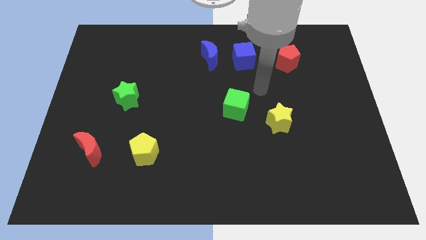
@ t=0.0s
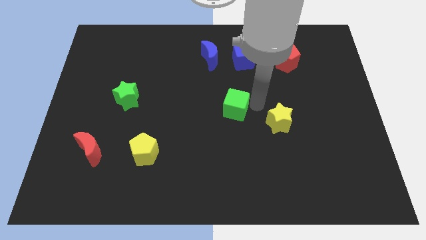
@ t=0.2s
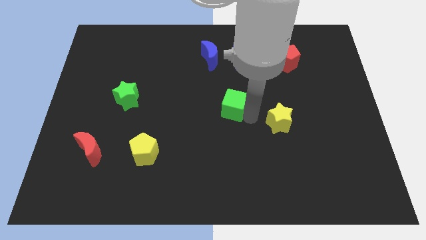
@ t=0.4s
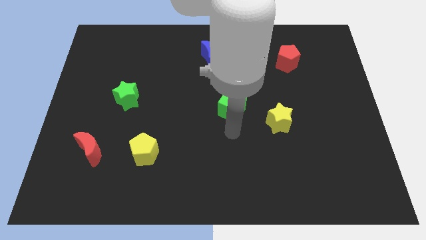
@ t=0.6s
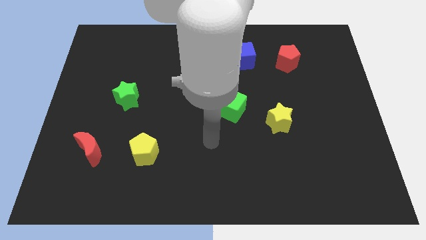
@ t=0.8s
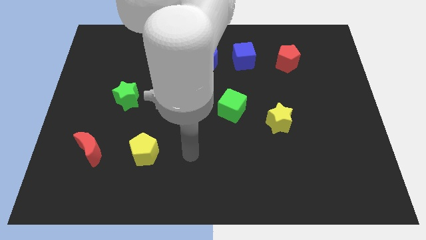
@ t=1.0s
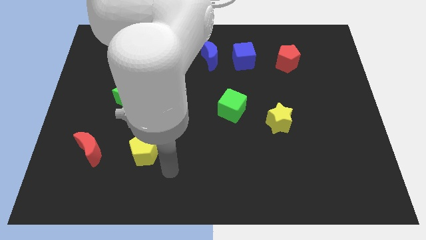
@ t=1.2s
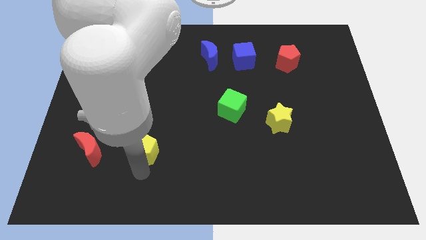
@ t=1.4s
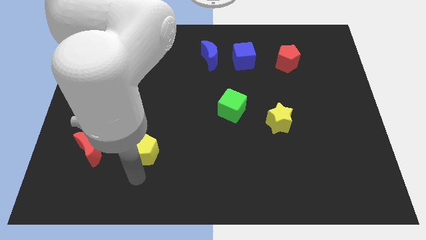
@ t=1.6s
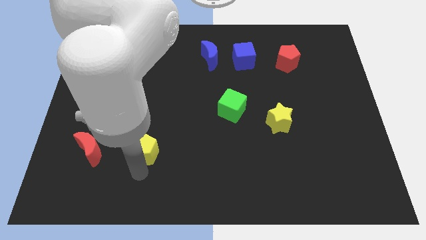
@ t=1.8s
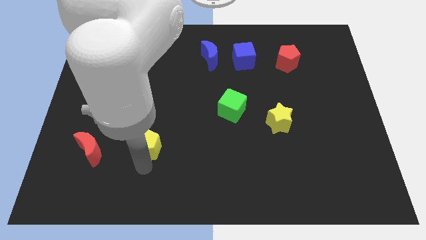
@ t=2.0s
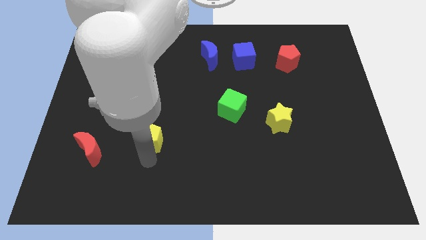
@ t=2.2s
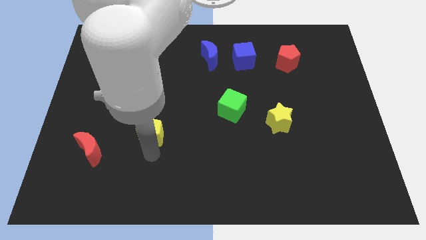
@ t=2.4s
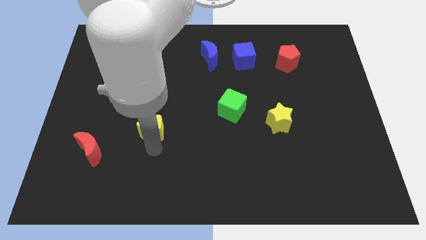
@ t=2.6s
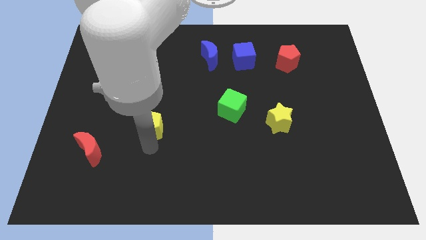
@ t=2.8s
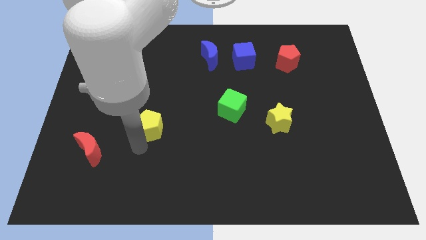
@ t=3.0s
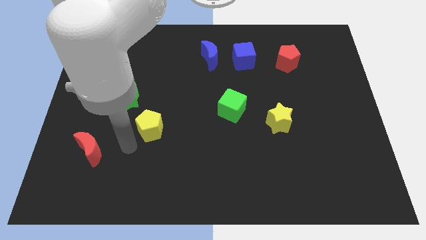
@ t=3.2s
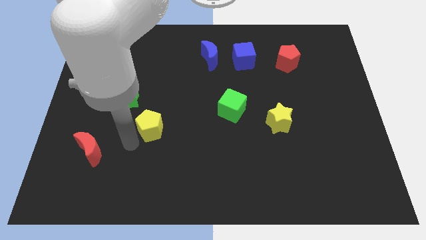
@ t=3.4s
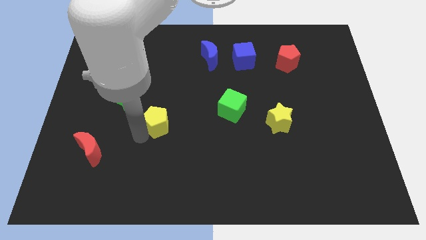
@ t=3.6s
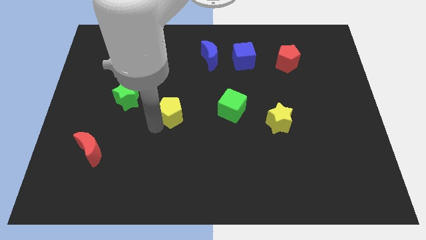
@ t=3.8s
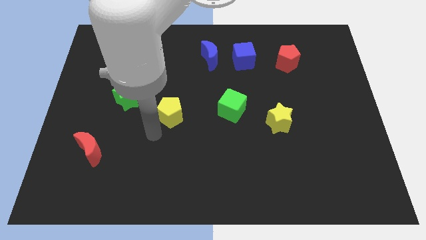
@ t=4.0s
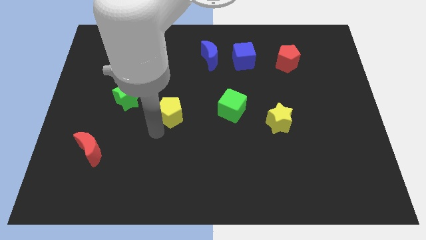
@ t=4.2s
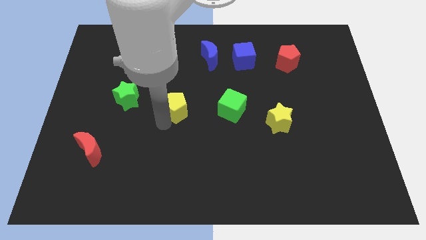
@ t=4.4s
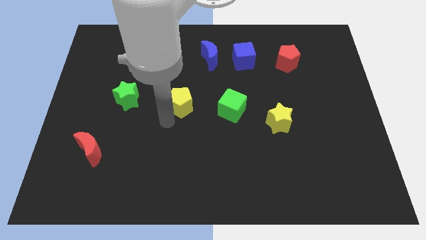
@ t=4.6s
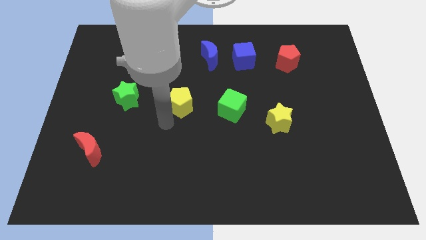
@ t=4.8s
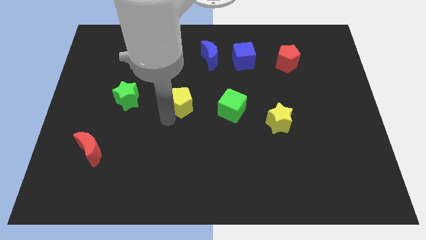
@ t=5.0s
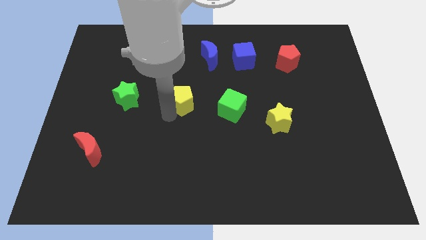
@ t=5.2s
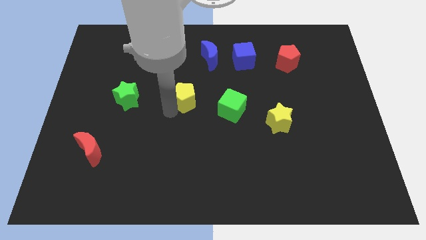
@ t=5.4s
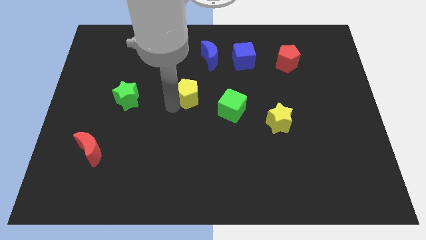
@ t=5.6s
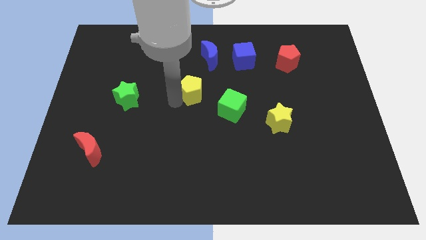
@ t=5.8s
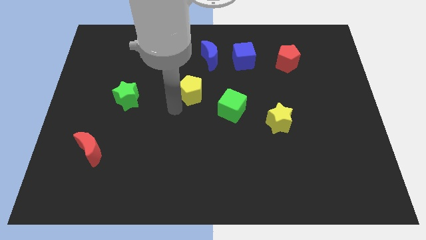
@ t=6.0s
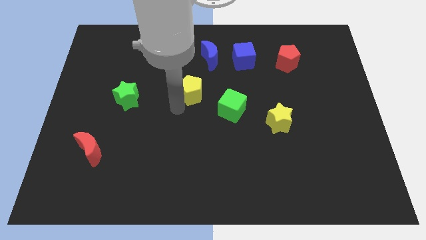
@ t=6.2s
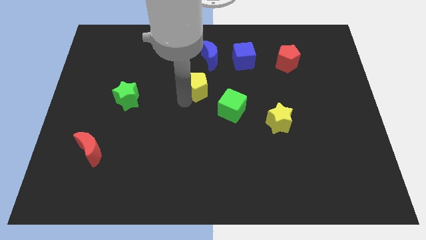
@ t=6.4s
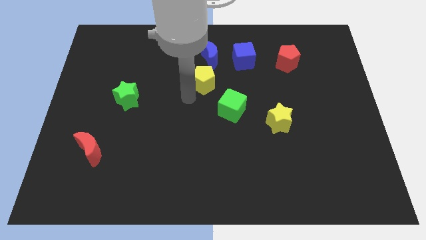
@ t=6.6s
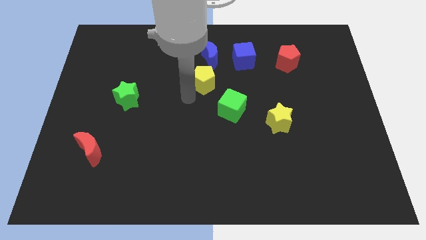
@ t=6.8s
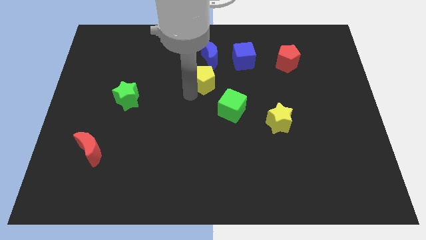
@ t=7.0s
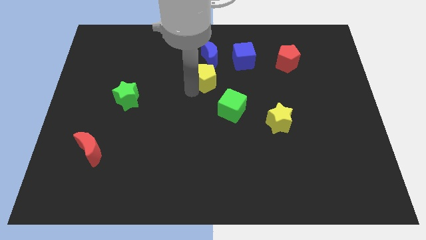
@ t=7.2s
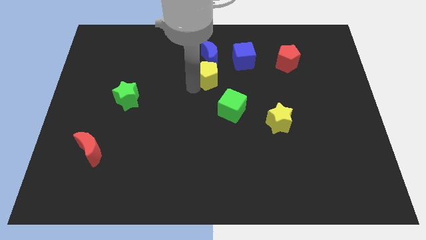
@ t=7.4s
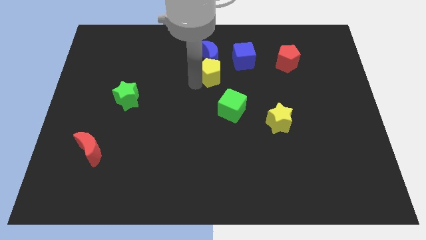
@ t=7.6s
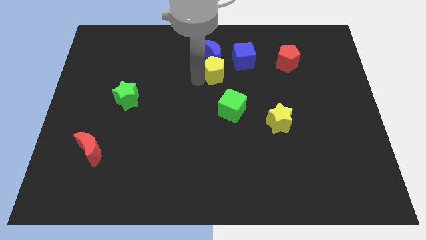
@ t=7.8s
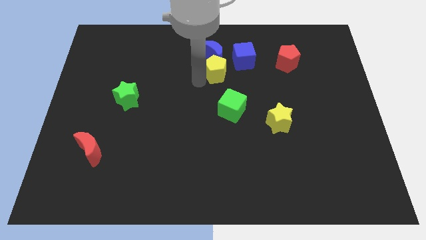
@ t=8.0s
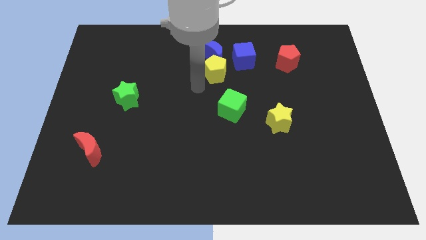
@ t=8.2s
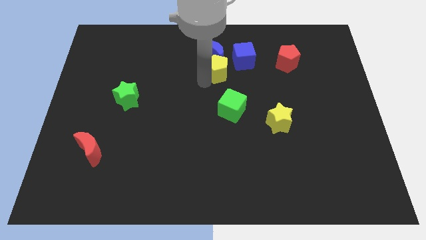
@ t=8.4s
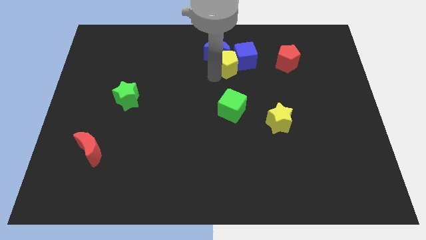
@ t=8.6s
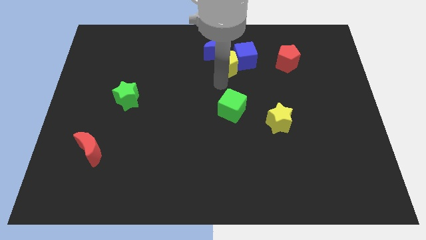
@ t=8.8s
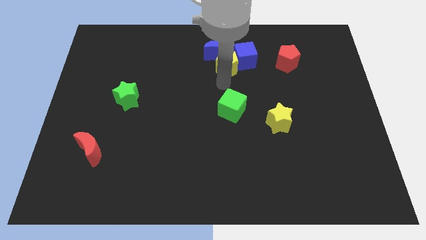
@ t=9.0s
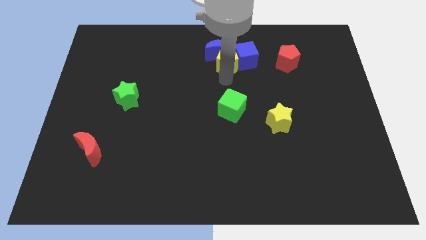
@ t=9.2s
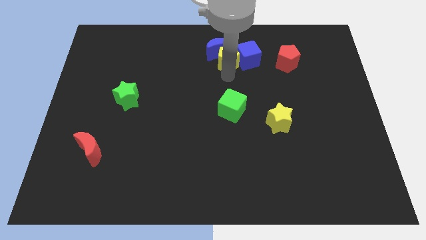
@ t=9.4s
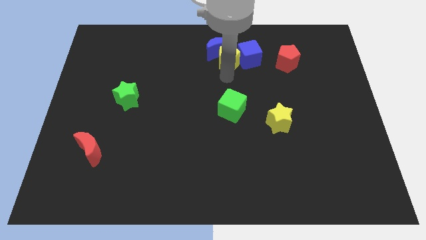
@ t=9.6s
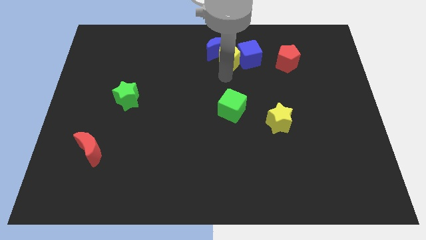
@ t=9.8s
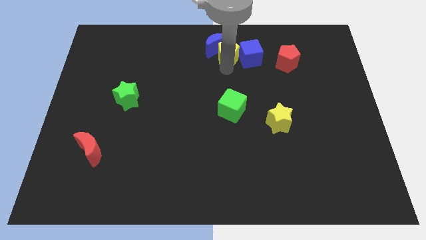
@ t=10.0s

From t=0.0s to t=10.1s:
slide the yellow pentagon to the top

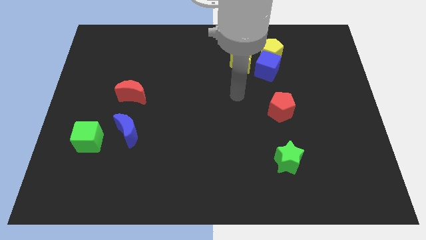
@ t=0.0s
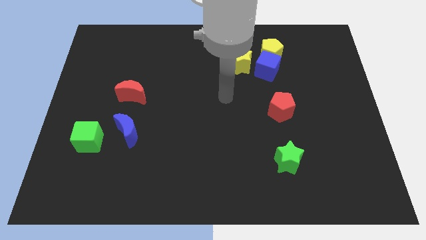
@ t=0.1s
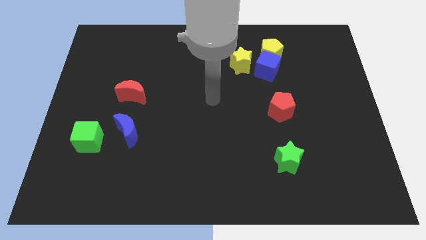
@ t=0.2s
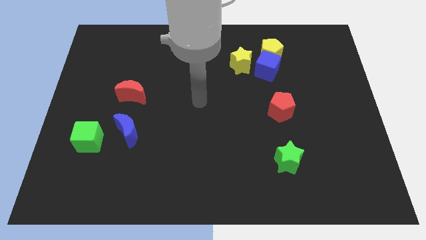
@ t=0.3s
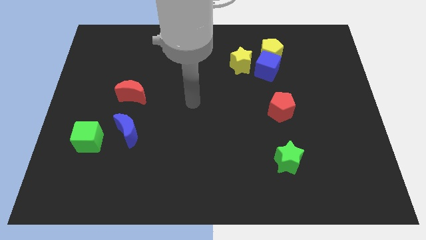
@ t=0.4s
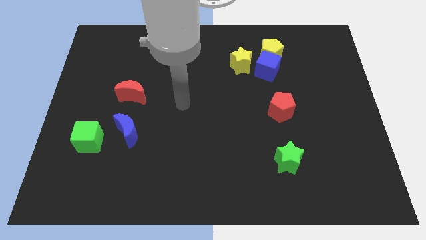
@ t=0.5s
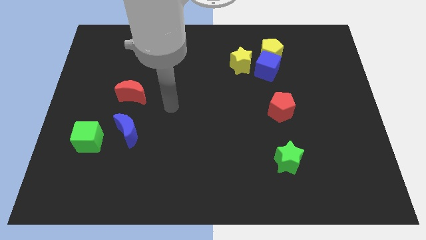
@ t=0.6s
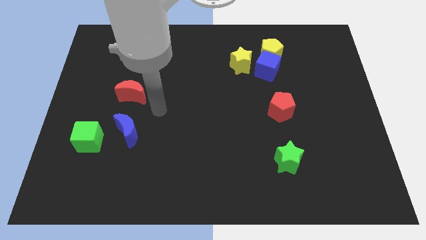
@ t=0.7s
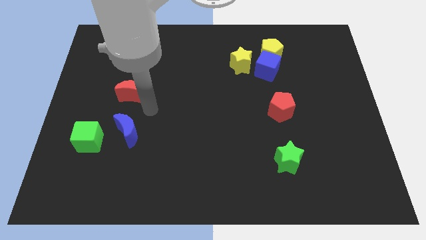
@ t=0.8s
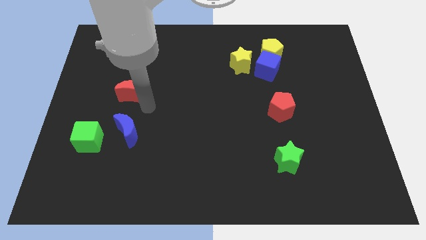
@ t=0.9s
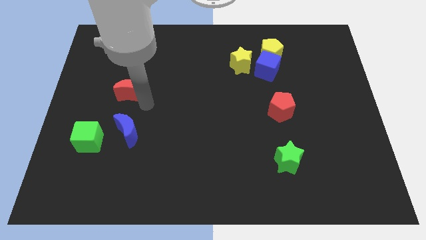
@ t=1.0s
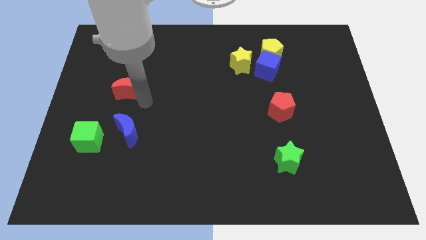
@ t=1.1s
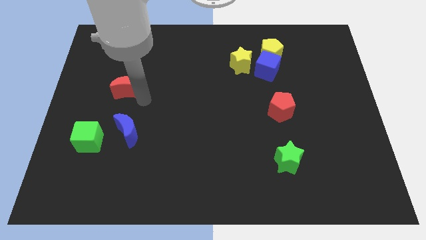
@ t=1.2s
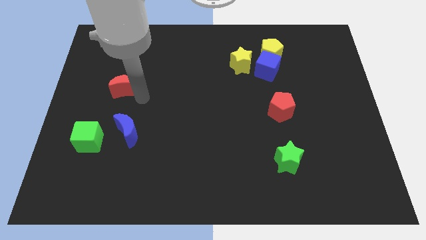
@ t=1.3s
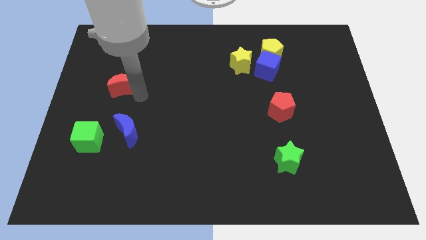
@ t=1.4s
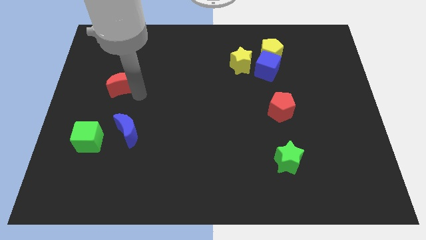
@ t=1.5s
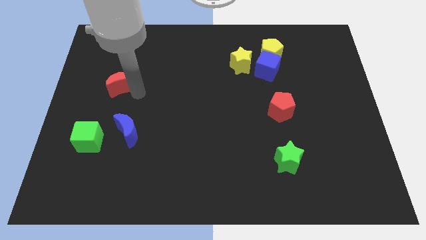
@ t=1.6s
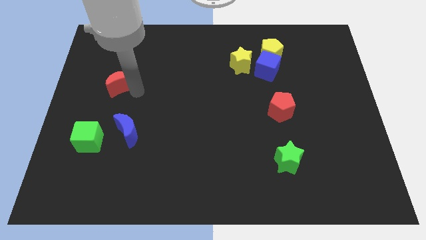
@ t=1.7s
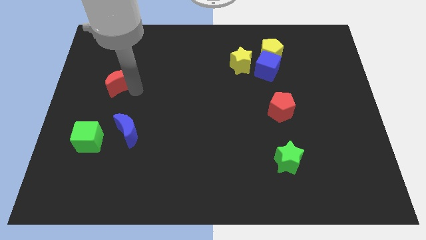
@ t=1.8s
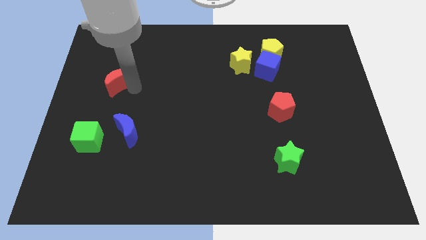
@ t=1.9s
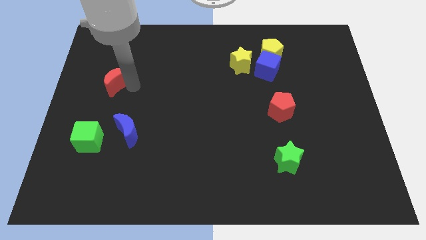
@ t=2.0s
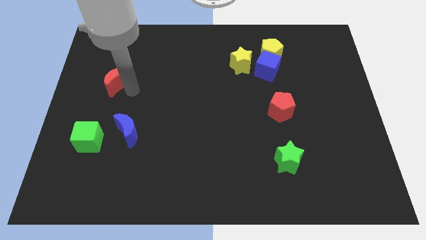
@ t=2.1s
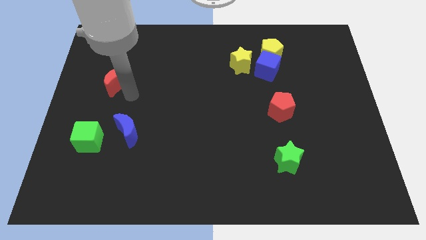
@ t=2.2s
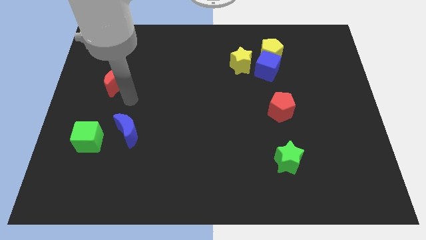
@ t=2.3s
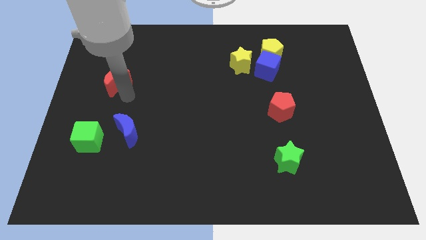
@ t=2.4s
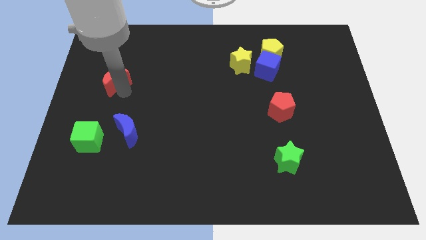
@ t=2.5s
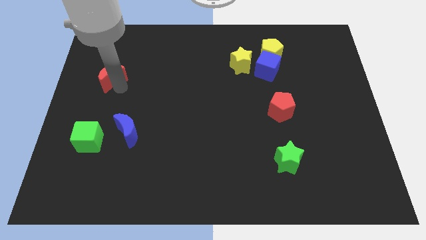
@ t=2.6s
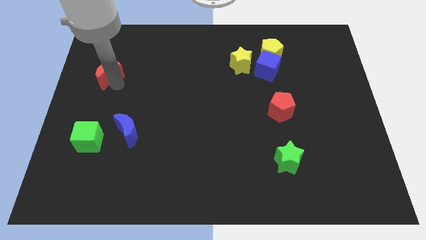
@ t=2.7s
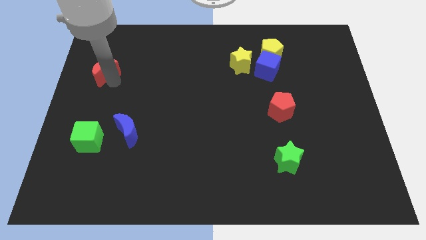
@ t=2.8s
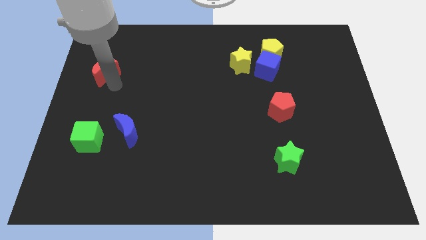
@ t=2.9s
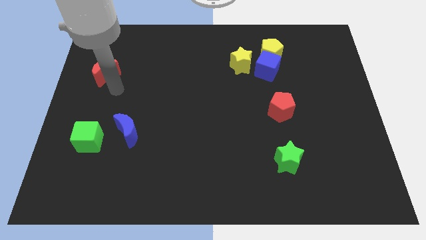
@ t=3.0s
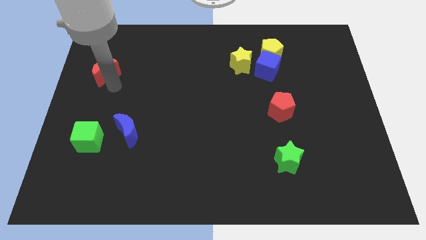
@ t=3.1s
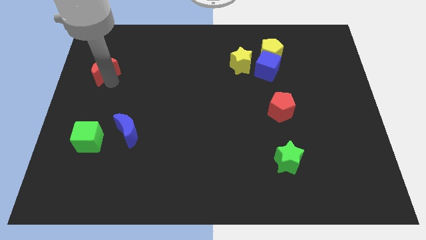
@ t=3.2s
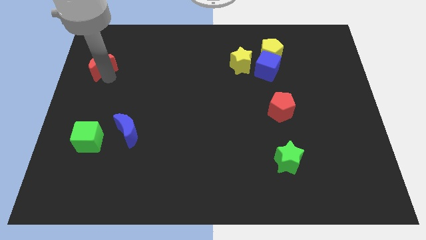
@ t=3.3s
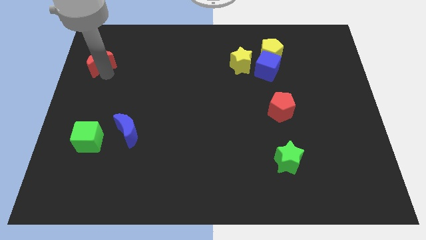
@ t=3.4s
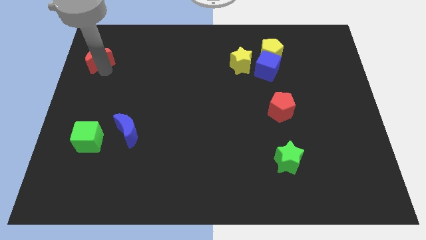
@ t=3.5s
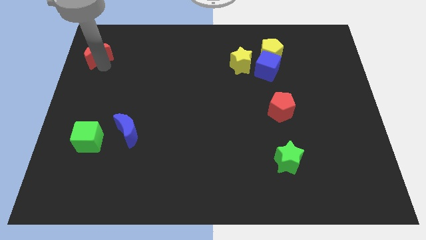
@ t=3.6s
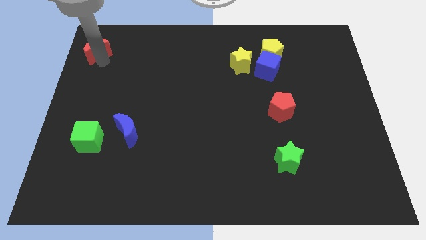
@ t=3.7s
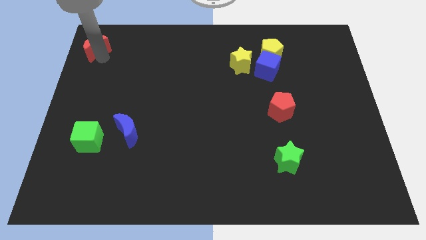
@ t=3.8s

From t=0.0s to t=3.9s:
push the red moon to the top left
